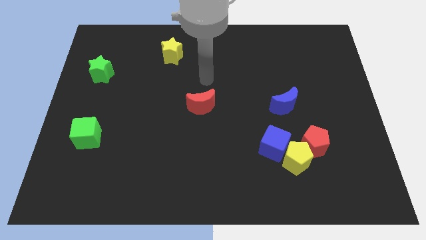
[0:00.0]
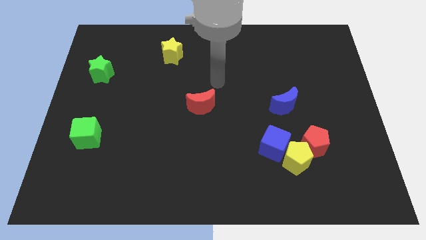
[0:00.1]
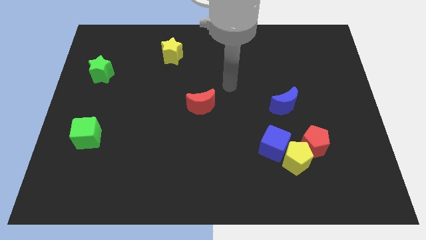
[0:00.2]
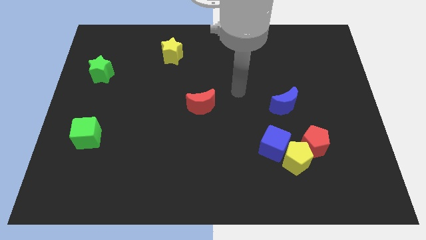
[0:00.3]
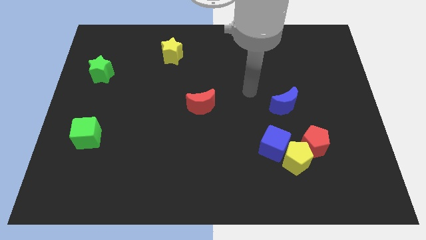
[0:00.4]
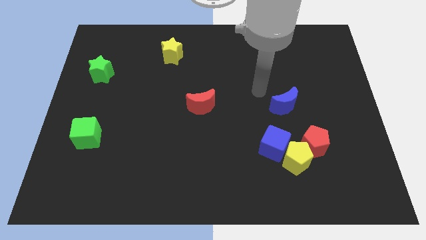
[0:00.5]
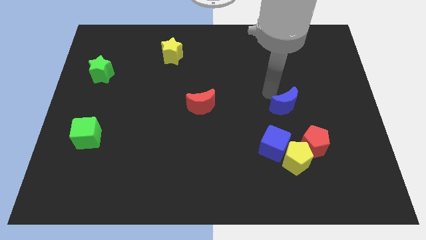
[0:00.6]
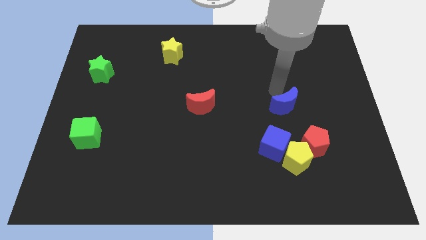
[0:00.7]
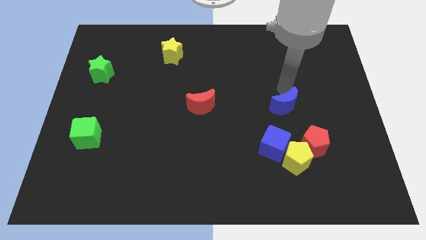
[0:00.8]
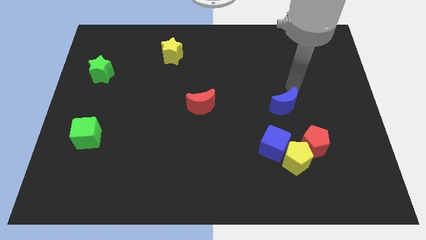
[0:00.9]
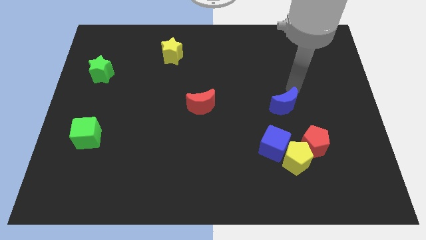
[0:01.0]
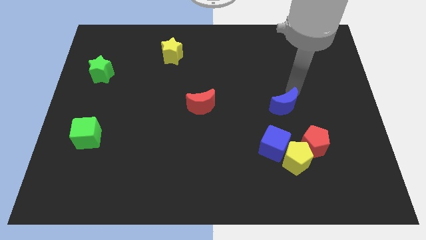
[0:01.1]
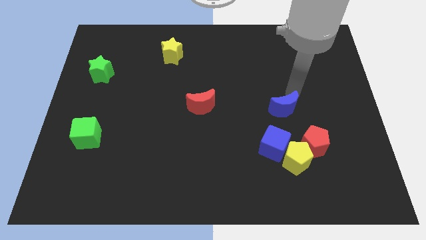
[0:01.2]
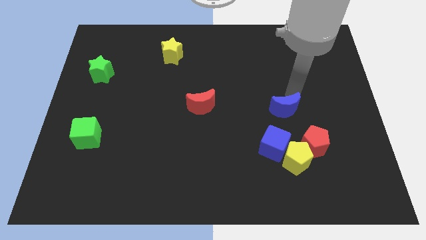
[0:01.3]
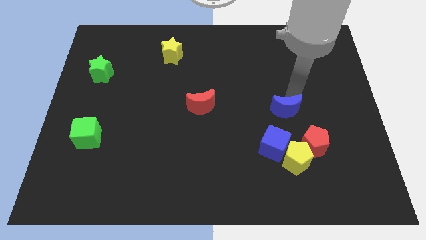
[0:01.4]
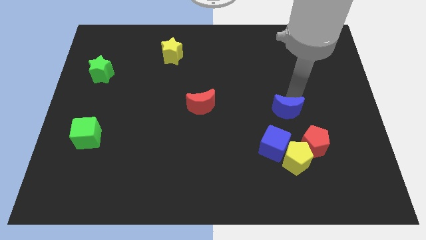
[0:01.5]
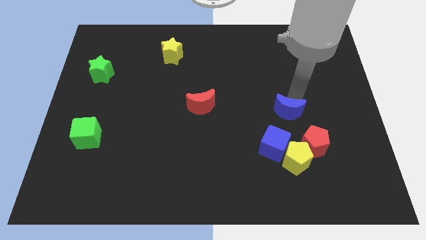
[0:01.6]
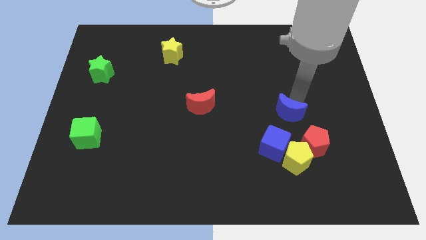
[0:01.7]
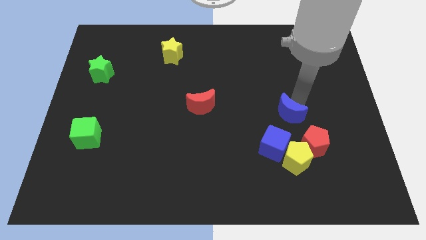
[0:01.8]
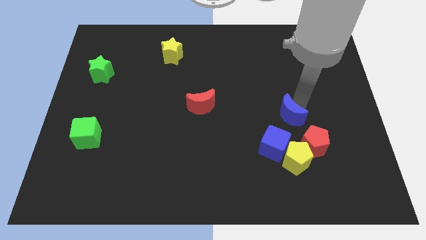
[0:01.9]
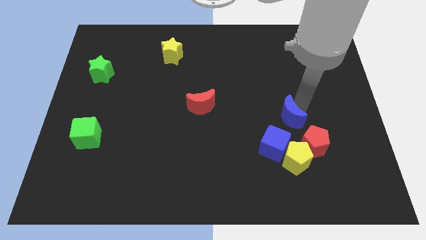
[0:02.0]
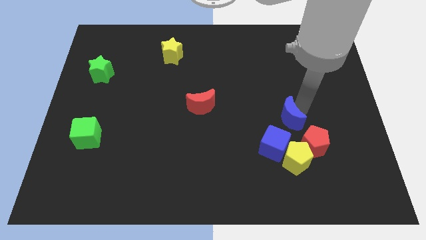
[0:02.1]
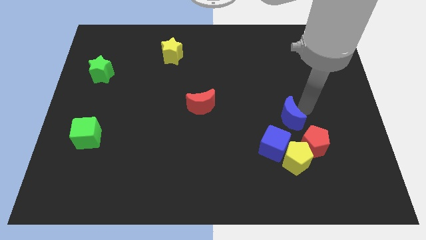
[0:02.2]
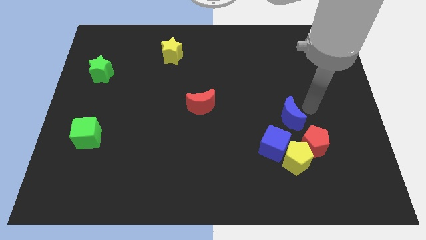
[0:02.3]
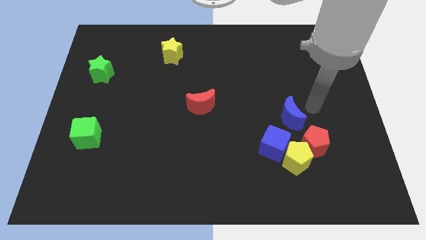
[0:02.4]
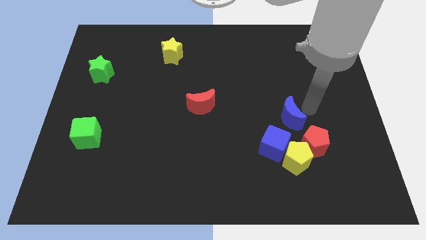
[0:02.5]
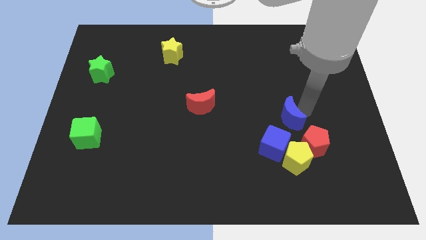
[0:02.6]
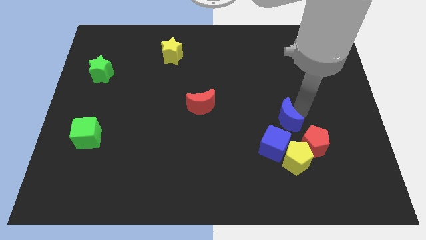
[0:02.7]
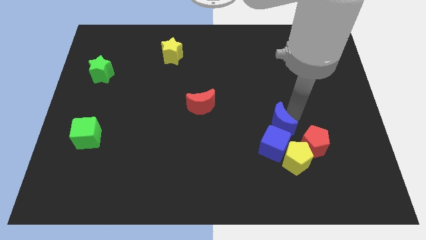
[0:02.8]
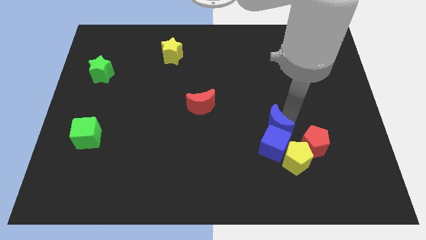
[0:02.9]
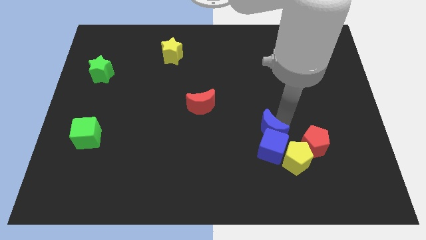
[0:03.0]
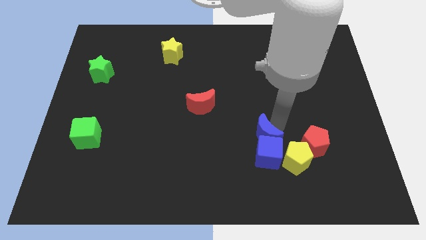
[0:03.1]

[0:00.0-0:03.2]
push the blue moon a little bit downwards

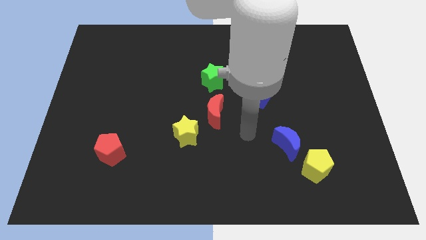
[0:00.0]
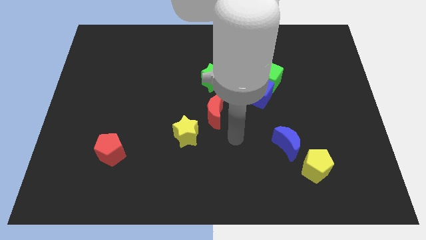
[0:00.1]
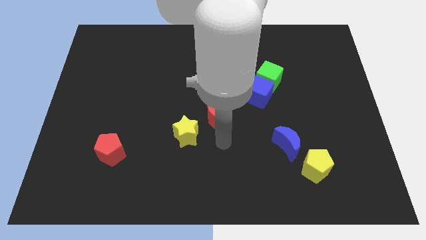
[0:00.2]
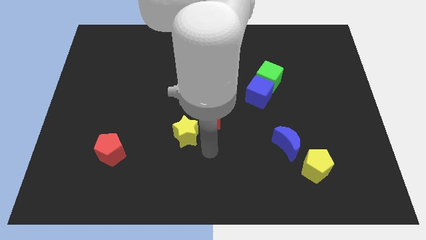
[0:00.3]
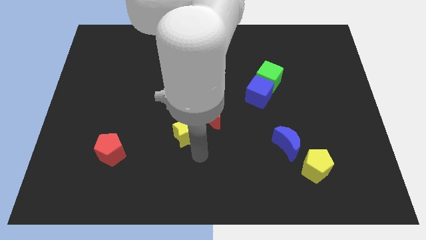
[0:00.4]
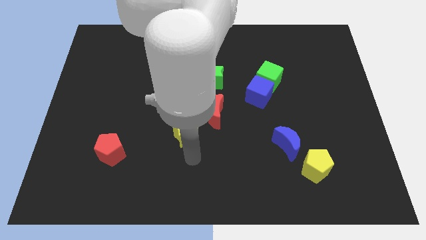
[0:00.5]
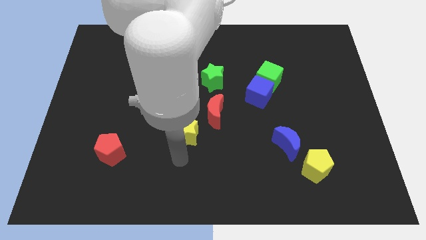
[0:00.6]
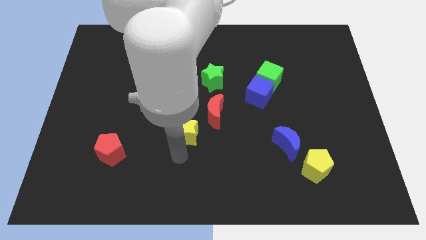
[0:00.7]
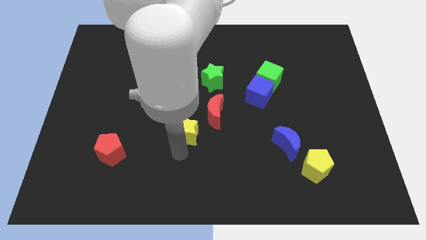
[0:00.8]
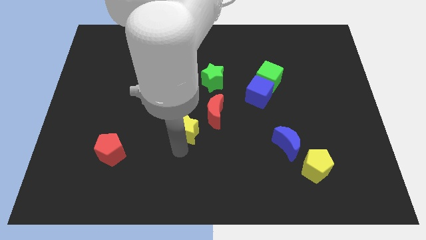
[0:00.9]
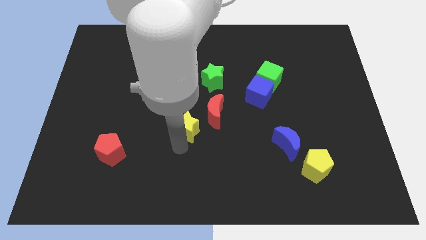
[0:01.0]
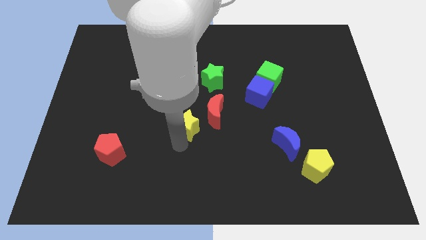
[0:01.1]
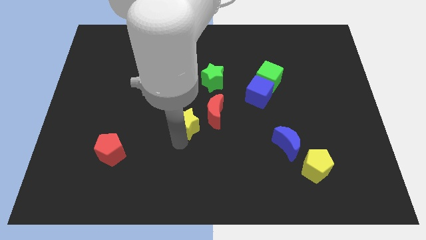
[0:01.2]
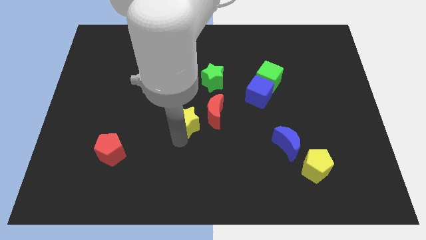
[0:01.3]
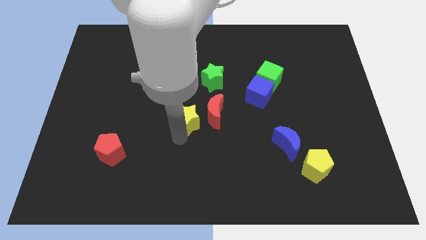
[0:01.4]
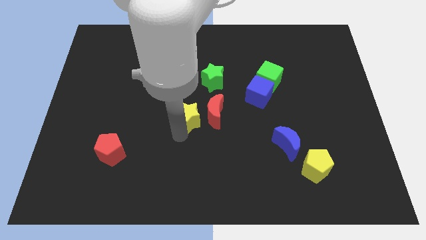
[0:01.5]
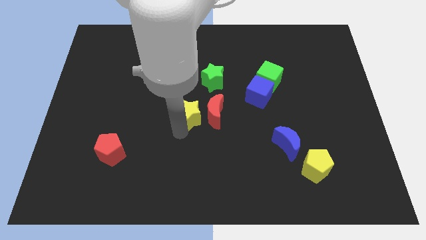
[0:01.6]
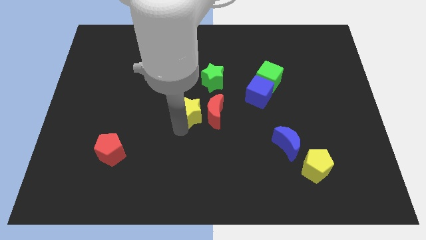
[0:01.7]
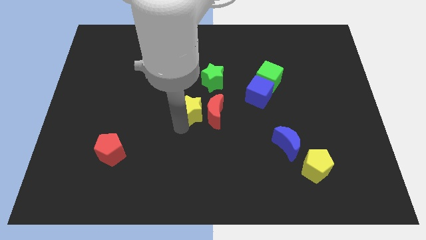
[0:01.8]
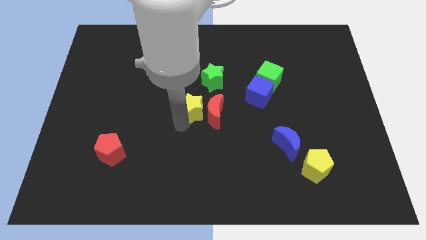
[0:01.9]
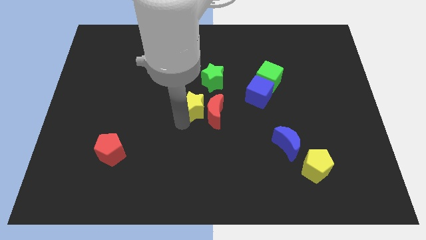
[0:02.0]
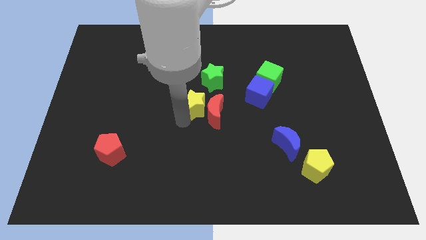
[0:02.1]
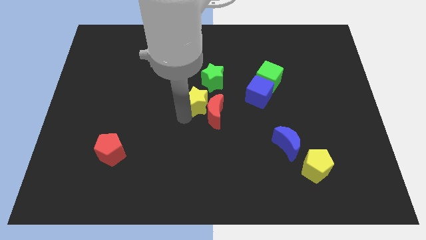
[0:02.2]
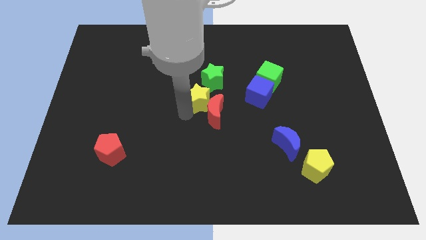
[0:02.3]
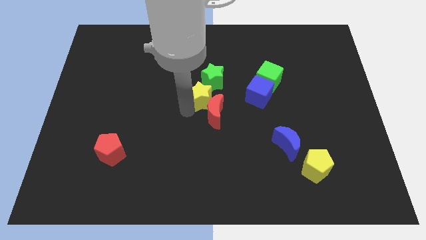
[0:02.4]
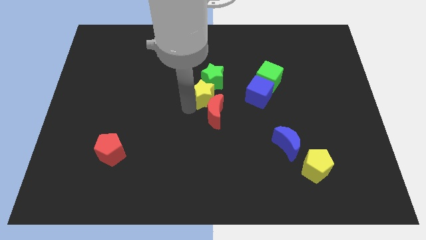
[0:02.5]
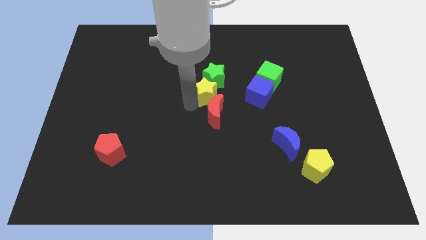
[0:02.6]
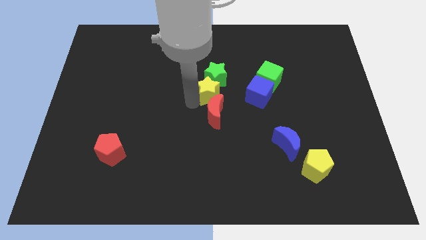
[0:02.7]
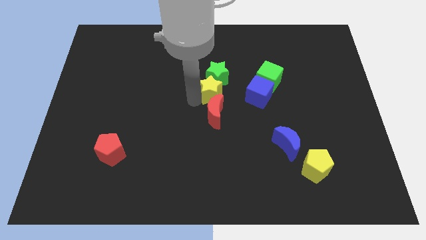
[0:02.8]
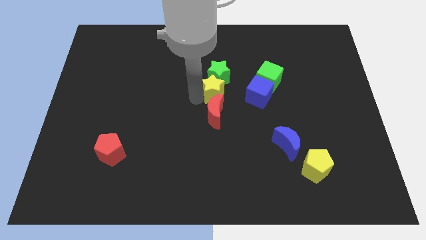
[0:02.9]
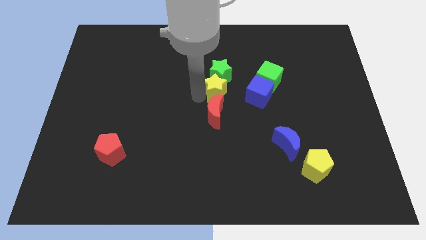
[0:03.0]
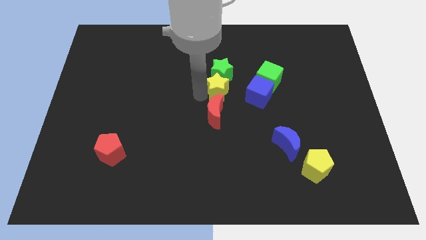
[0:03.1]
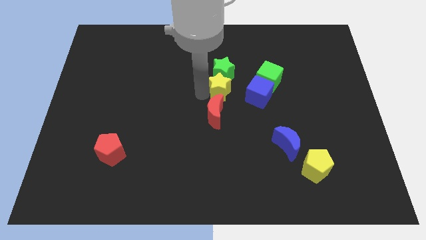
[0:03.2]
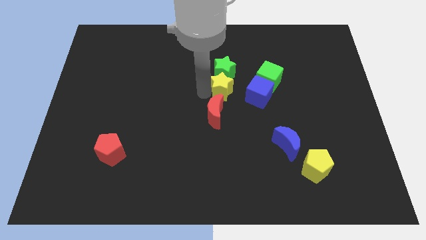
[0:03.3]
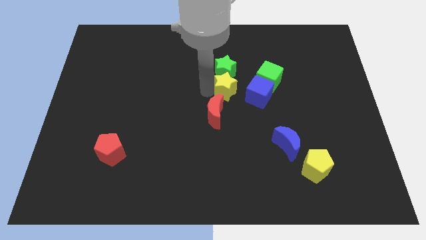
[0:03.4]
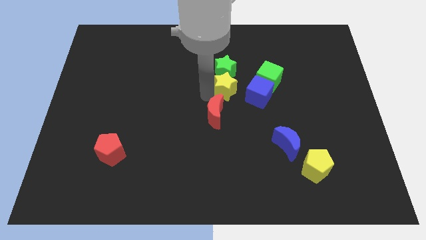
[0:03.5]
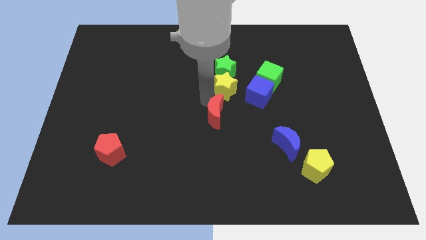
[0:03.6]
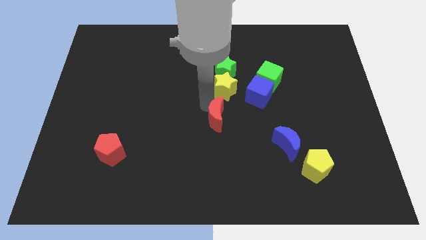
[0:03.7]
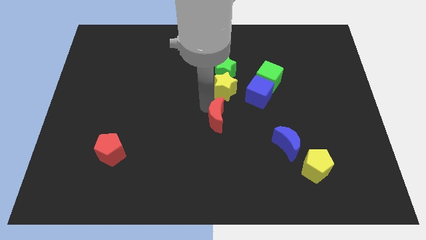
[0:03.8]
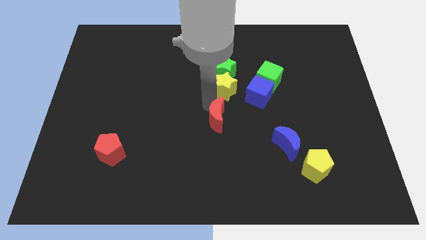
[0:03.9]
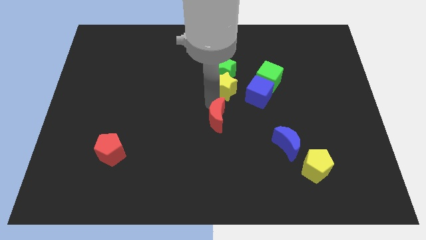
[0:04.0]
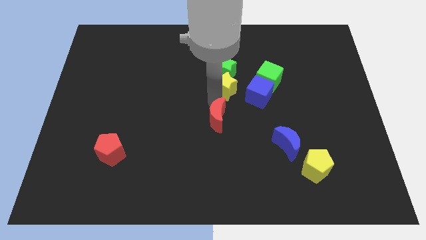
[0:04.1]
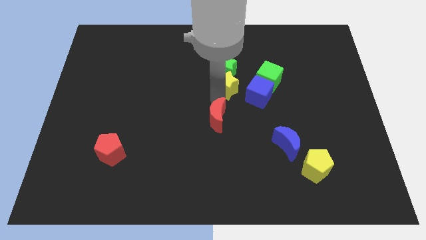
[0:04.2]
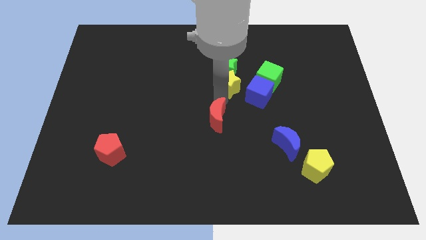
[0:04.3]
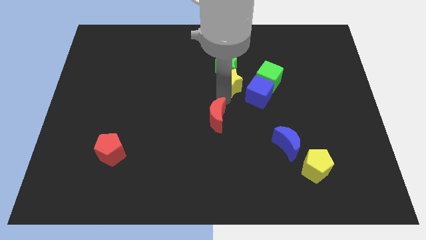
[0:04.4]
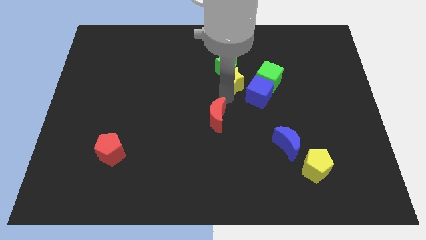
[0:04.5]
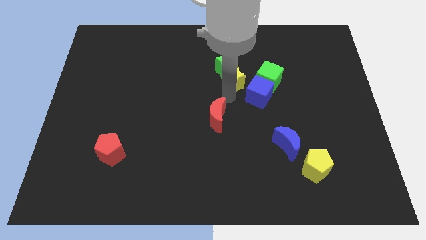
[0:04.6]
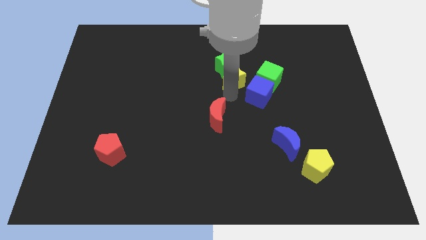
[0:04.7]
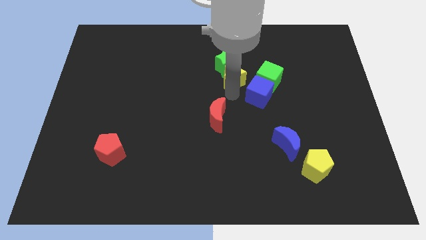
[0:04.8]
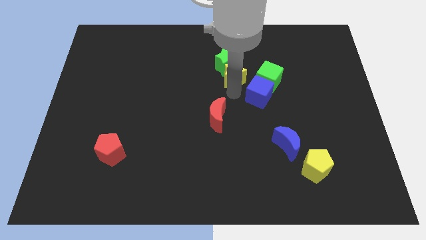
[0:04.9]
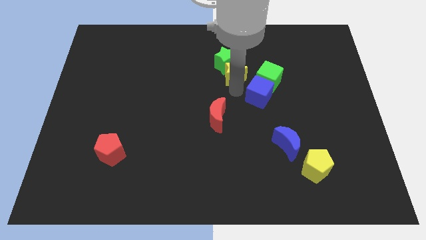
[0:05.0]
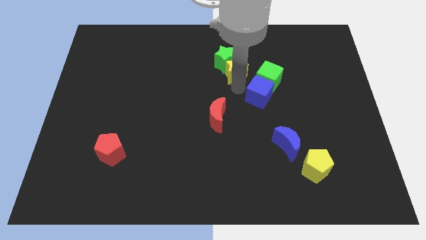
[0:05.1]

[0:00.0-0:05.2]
slide the yellow star diagonally up and right
